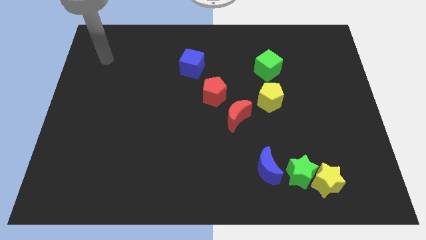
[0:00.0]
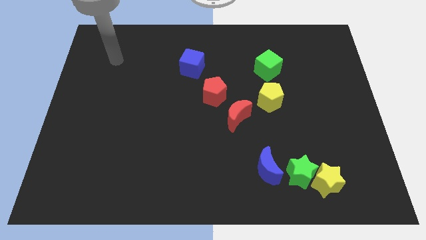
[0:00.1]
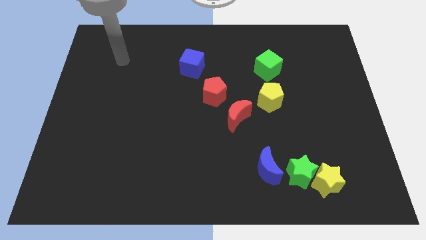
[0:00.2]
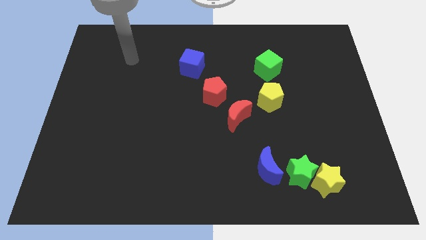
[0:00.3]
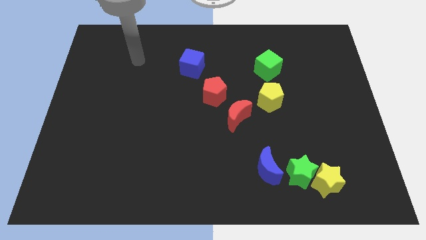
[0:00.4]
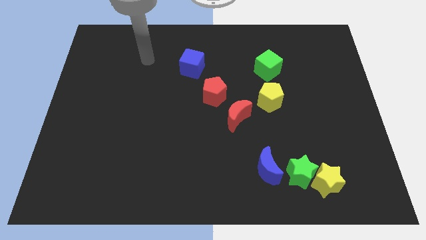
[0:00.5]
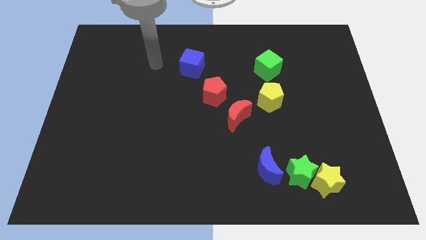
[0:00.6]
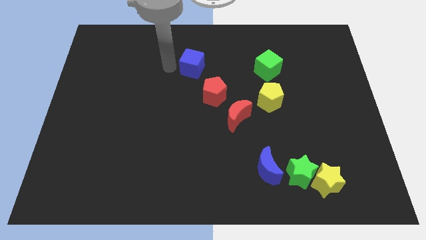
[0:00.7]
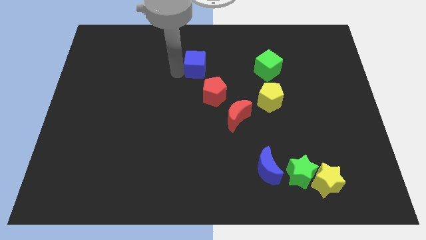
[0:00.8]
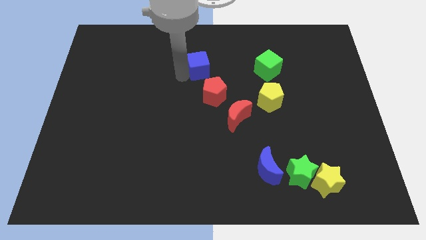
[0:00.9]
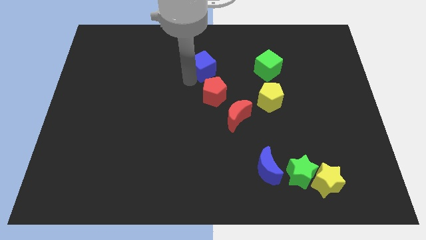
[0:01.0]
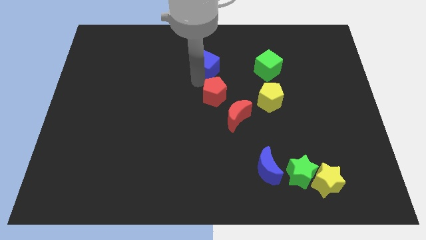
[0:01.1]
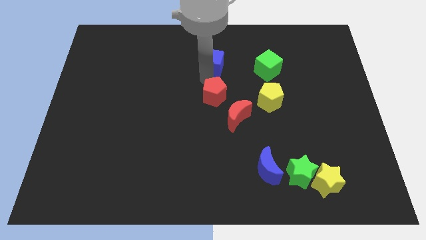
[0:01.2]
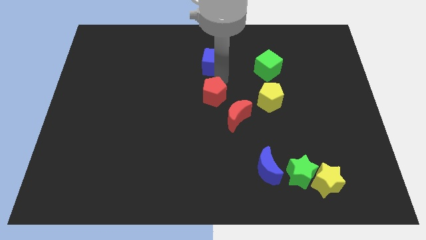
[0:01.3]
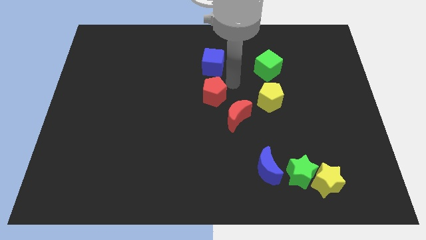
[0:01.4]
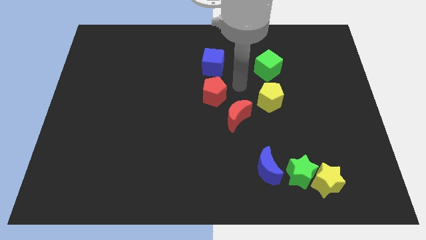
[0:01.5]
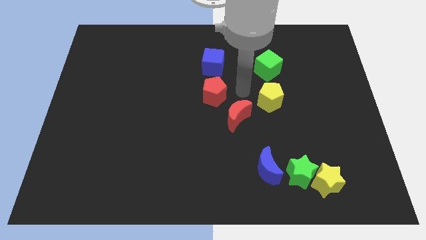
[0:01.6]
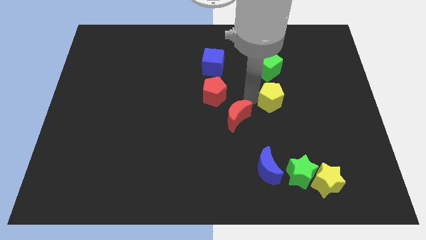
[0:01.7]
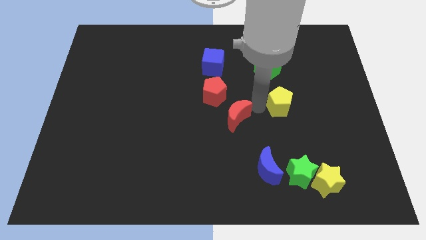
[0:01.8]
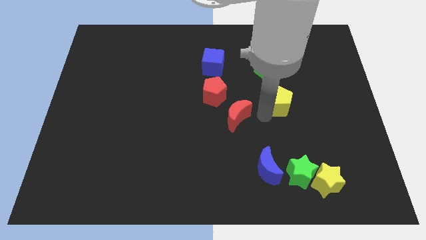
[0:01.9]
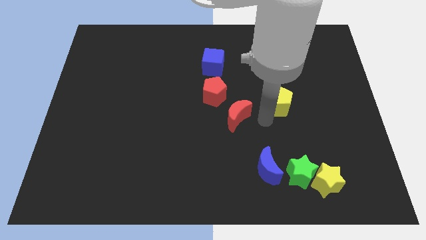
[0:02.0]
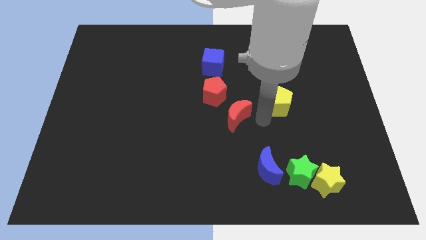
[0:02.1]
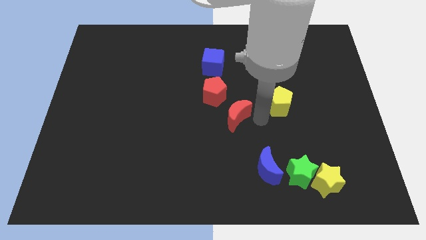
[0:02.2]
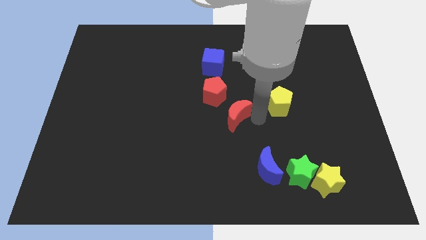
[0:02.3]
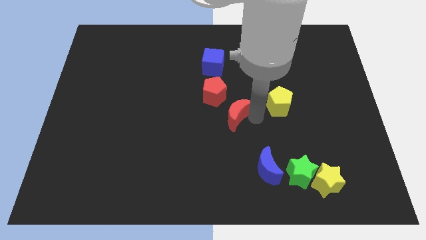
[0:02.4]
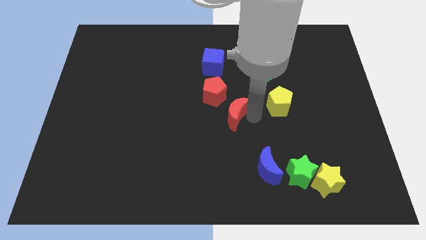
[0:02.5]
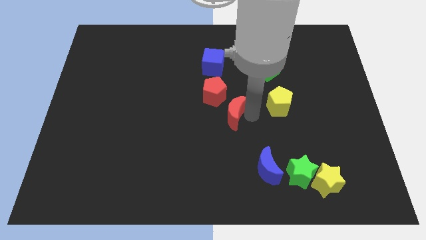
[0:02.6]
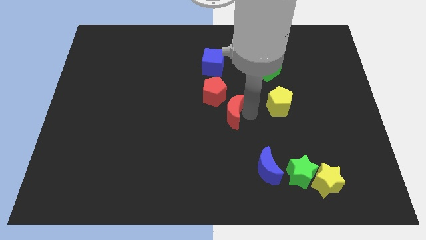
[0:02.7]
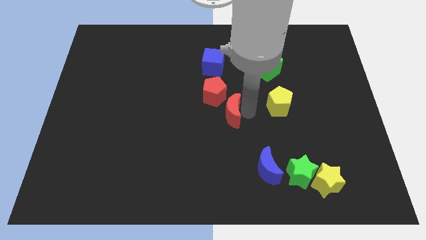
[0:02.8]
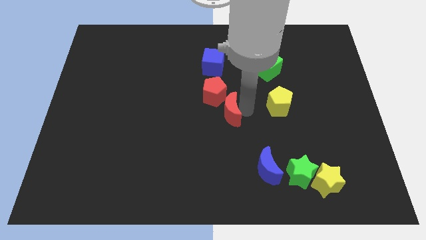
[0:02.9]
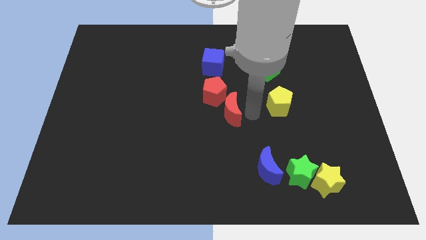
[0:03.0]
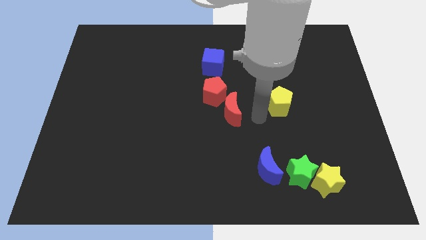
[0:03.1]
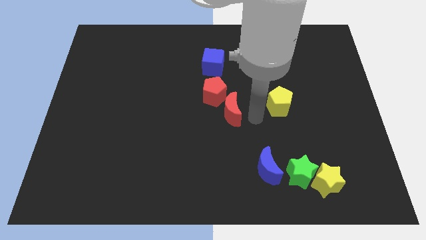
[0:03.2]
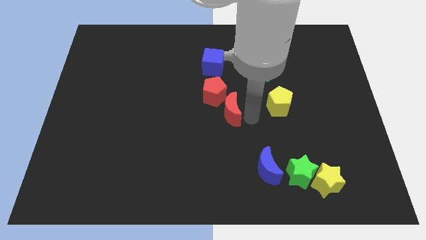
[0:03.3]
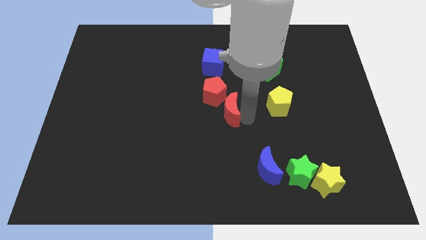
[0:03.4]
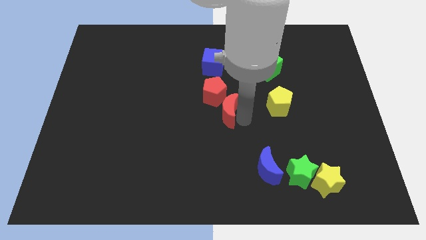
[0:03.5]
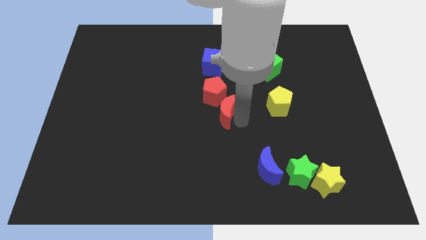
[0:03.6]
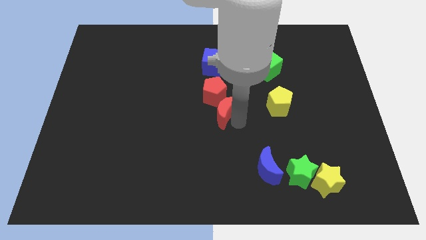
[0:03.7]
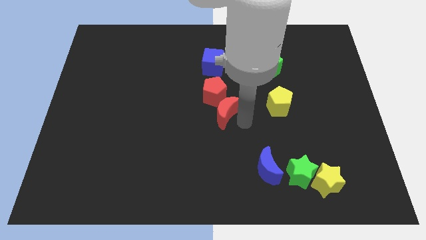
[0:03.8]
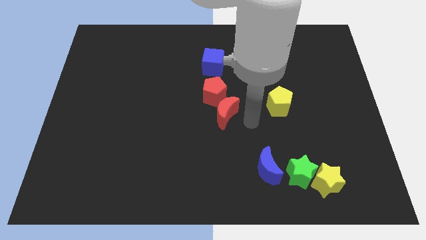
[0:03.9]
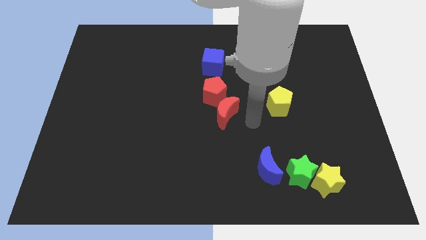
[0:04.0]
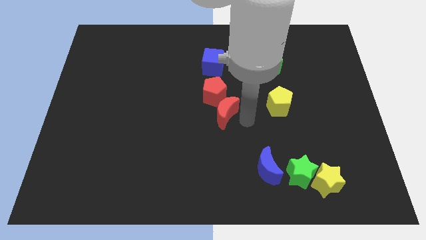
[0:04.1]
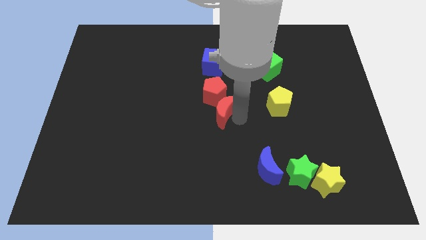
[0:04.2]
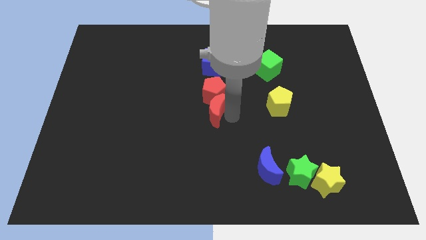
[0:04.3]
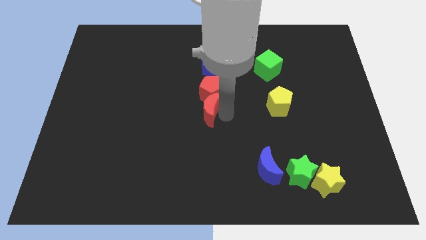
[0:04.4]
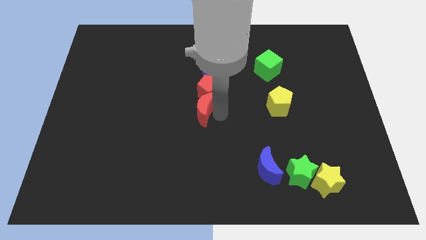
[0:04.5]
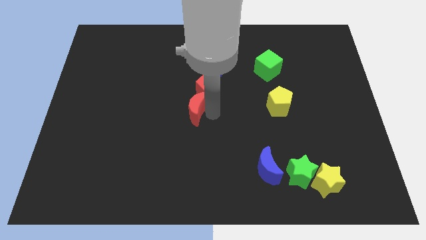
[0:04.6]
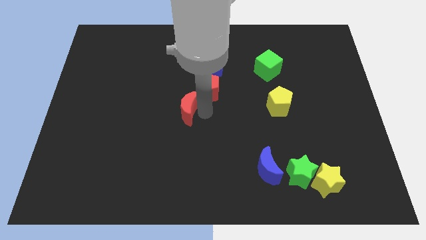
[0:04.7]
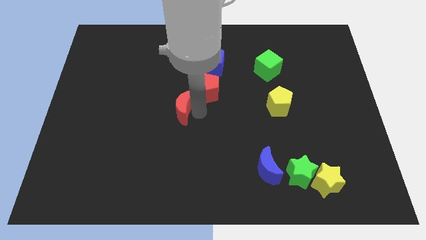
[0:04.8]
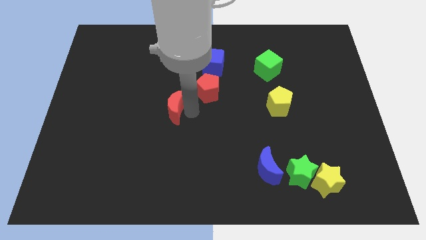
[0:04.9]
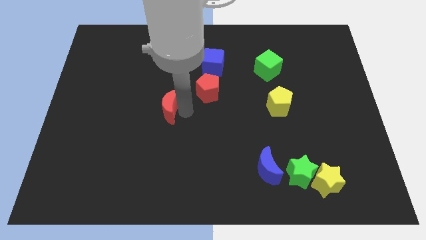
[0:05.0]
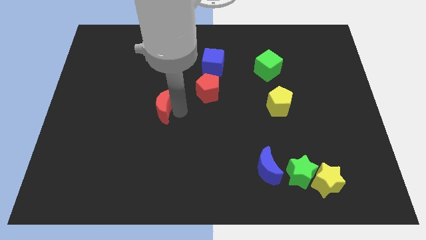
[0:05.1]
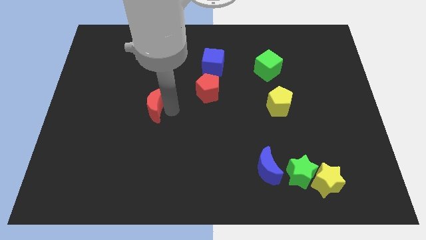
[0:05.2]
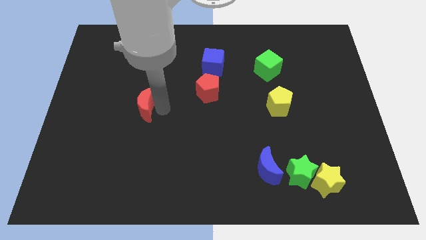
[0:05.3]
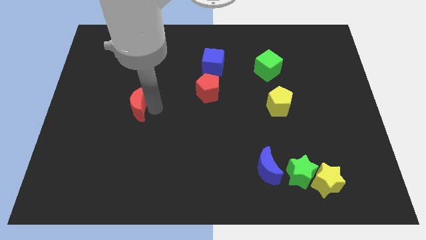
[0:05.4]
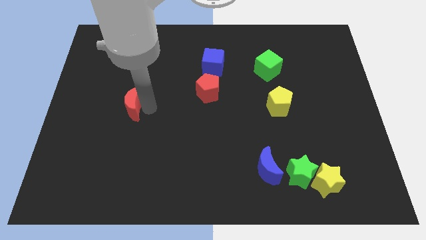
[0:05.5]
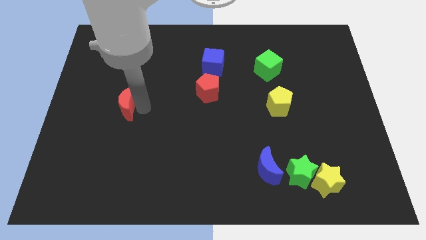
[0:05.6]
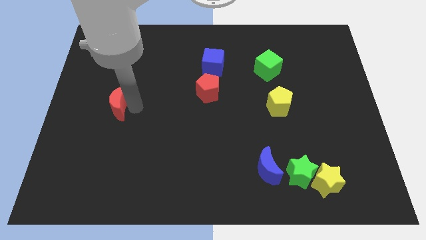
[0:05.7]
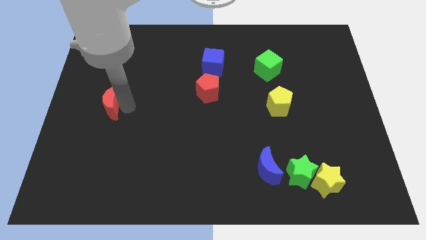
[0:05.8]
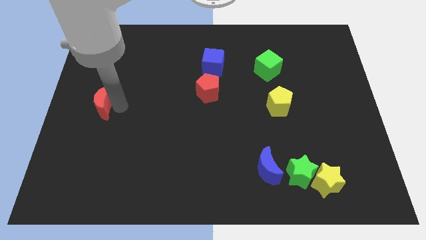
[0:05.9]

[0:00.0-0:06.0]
move the red moon to the left side
